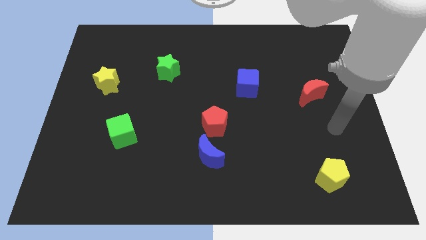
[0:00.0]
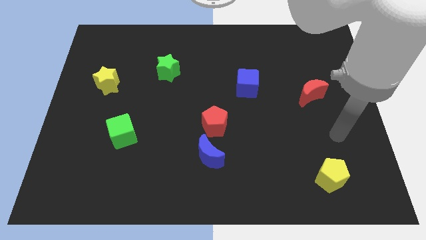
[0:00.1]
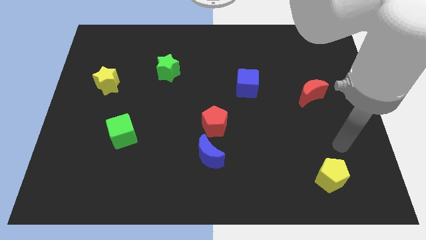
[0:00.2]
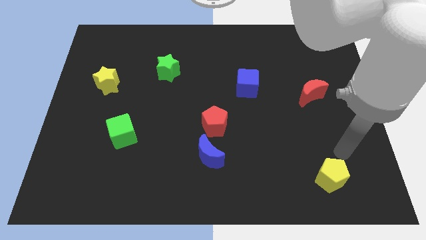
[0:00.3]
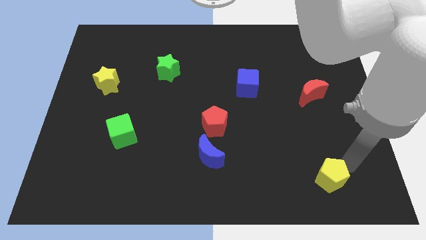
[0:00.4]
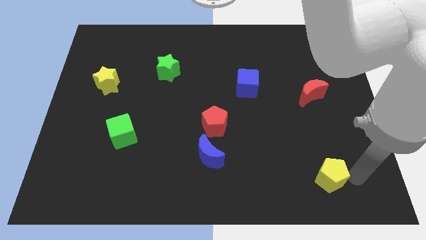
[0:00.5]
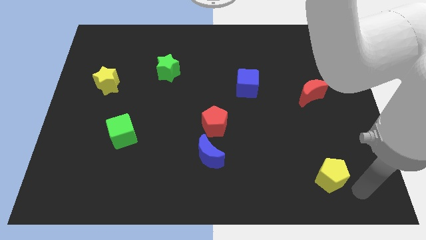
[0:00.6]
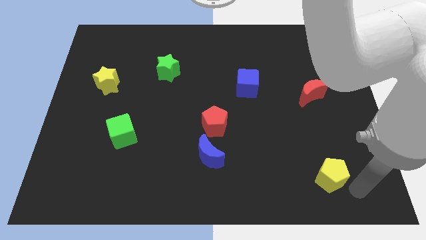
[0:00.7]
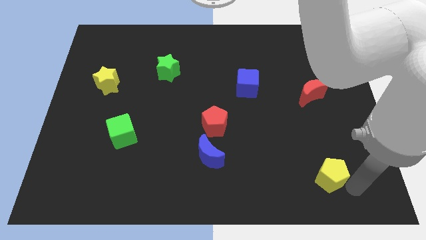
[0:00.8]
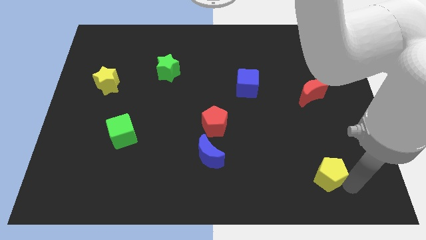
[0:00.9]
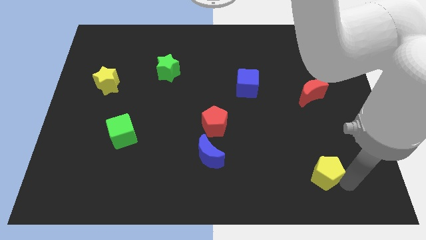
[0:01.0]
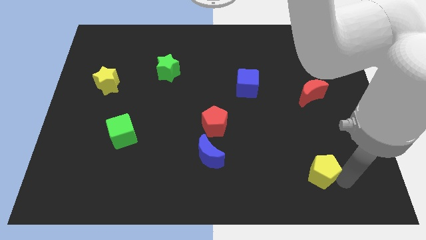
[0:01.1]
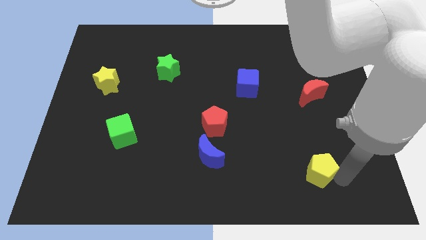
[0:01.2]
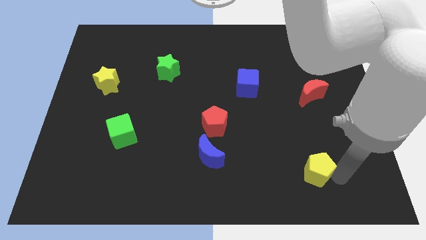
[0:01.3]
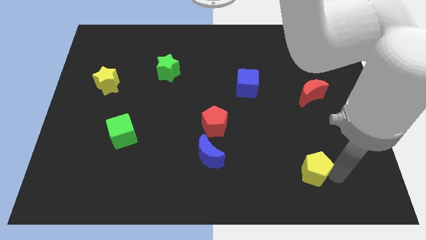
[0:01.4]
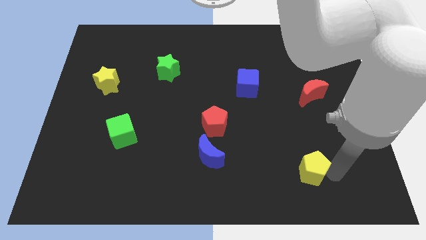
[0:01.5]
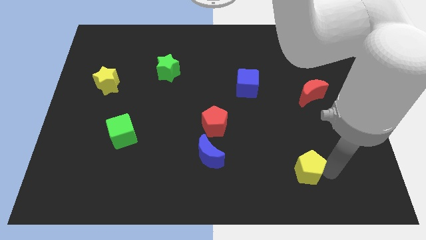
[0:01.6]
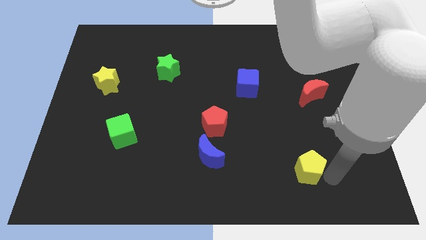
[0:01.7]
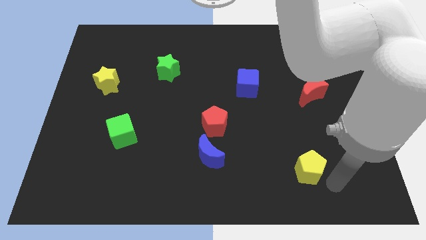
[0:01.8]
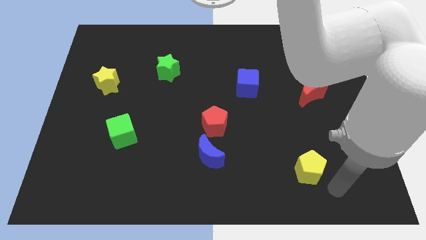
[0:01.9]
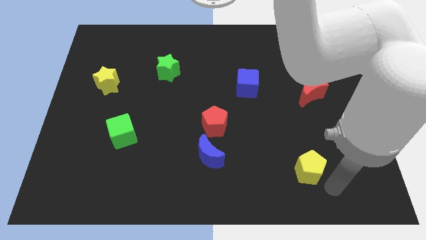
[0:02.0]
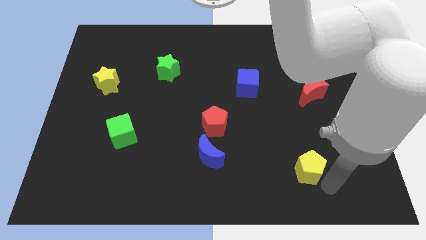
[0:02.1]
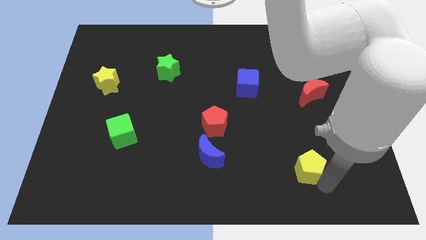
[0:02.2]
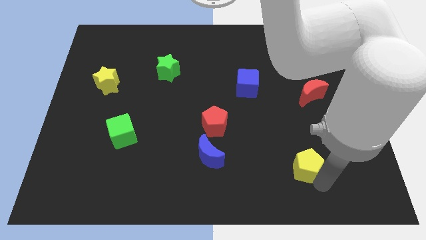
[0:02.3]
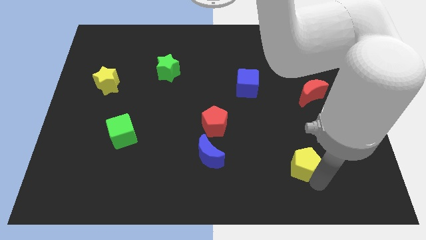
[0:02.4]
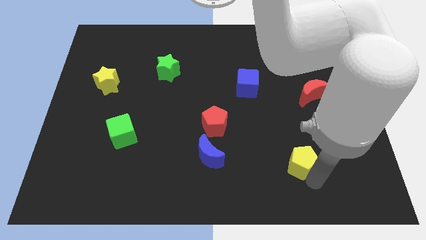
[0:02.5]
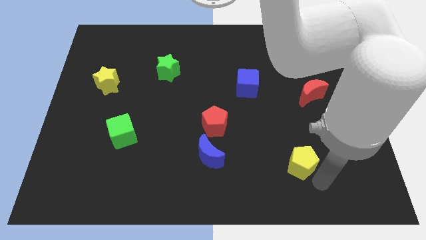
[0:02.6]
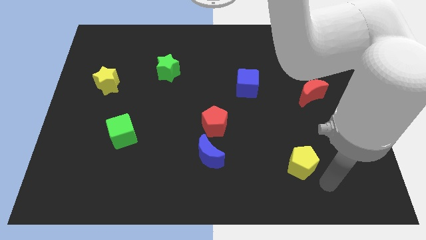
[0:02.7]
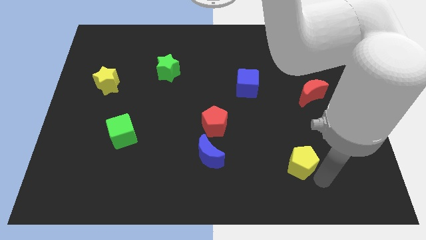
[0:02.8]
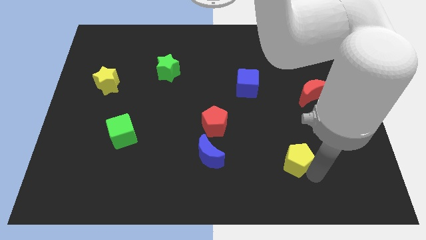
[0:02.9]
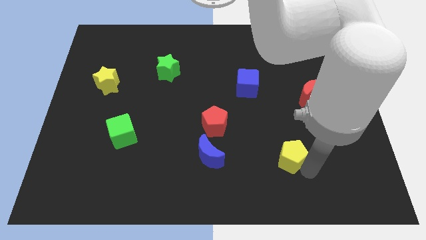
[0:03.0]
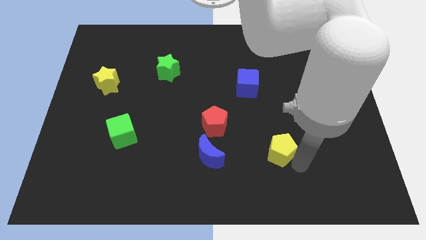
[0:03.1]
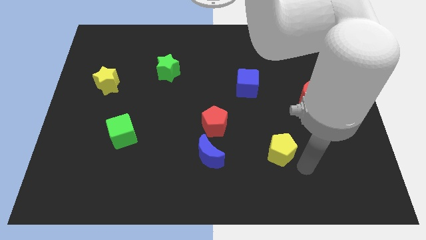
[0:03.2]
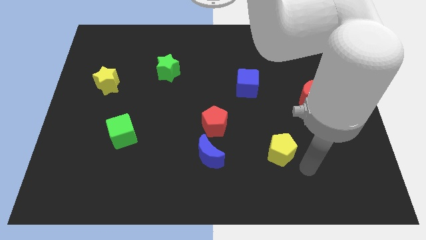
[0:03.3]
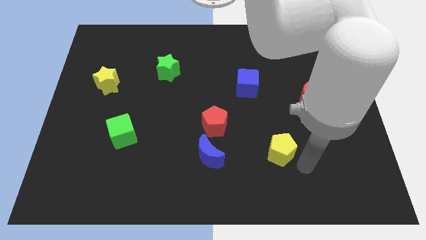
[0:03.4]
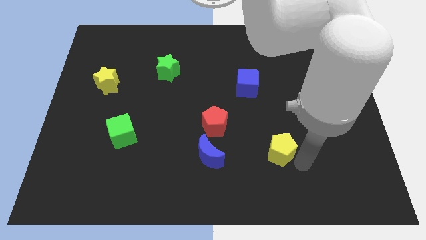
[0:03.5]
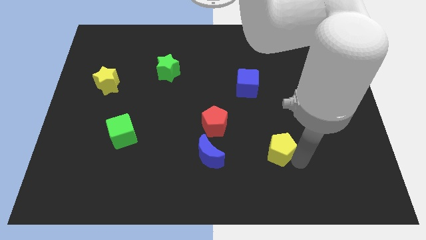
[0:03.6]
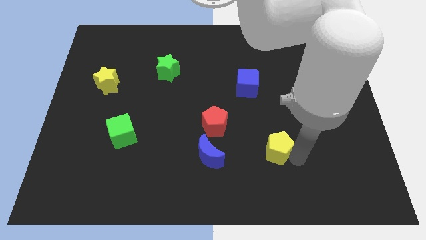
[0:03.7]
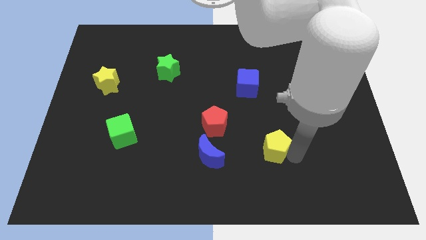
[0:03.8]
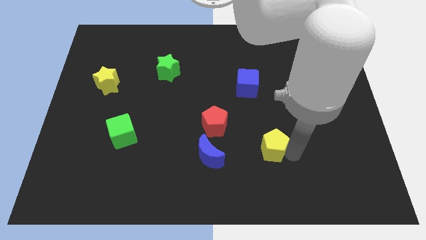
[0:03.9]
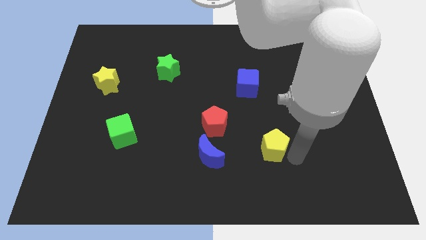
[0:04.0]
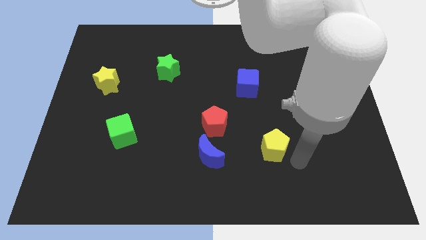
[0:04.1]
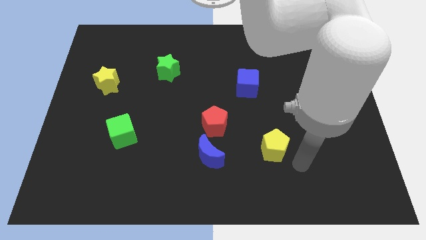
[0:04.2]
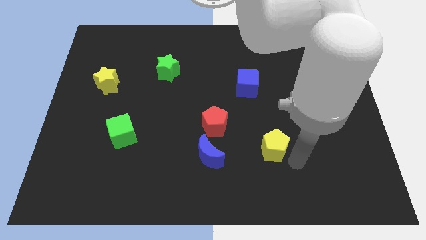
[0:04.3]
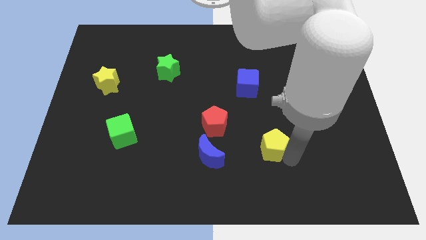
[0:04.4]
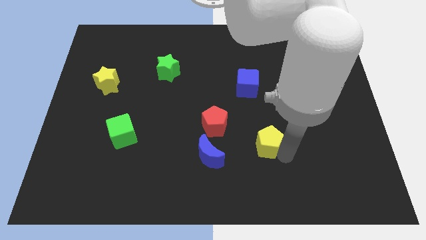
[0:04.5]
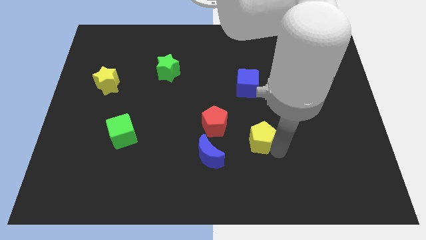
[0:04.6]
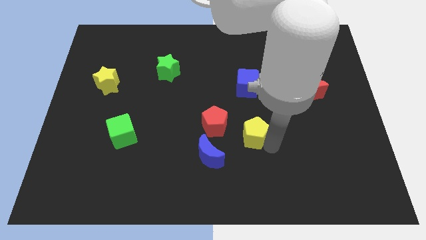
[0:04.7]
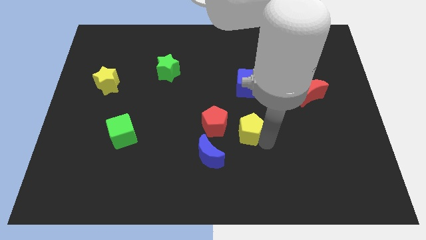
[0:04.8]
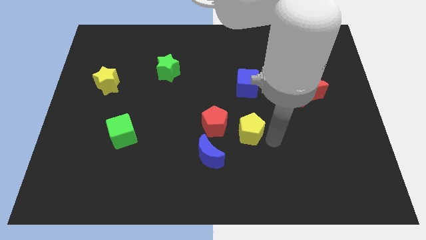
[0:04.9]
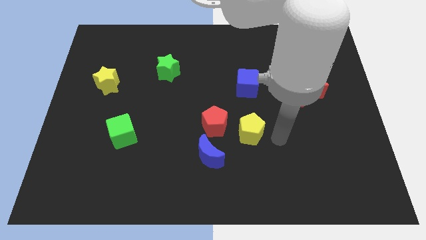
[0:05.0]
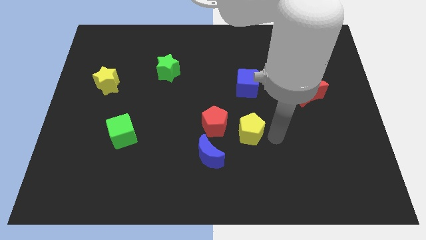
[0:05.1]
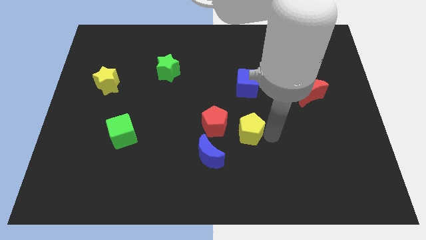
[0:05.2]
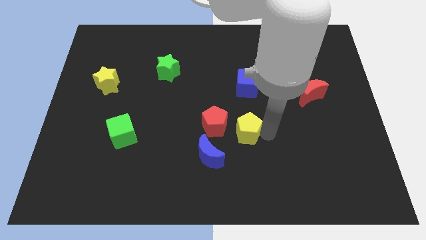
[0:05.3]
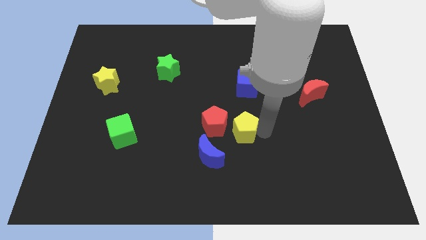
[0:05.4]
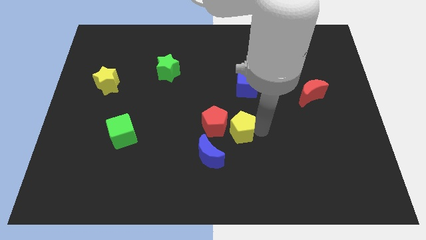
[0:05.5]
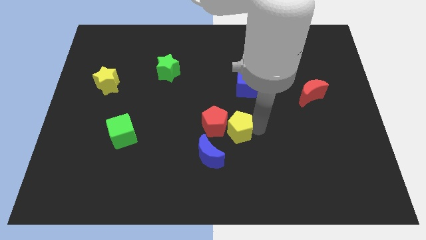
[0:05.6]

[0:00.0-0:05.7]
put the yellow pentagon next to the red pentagon

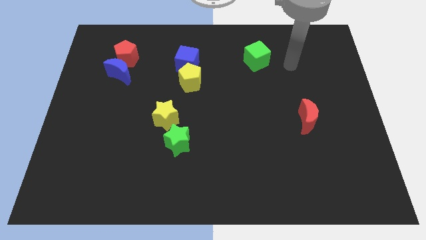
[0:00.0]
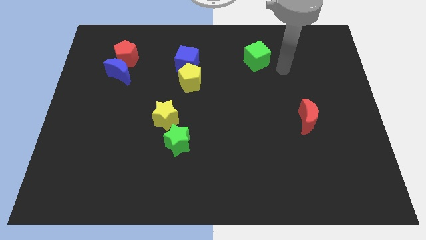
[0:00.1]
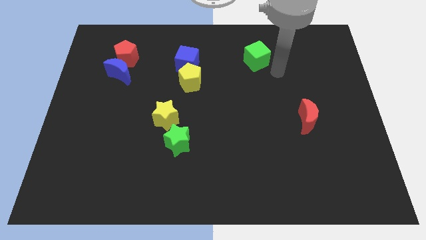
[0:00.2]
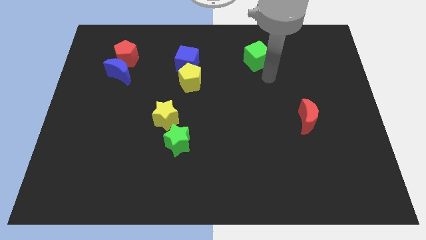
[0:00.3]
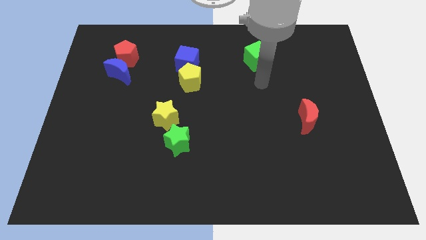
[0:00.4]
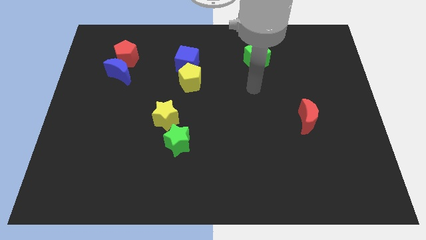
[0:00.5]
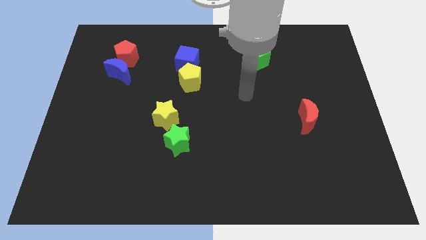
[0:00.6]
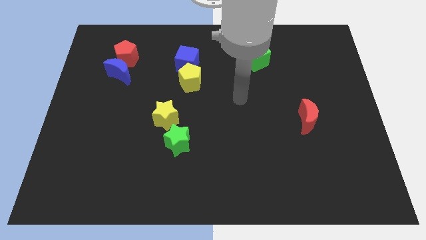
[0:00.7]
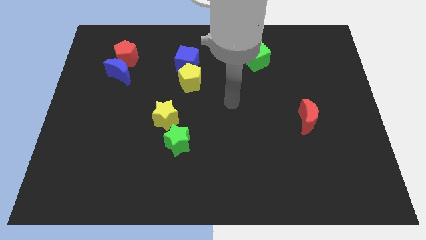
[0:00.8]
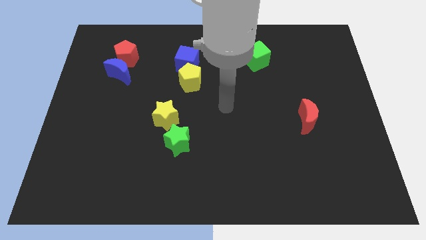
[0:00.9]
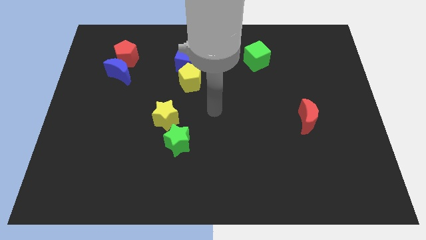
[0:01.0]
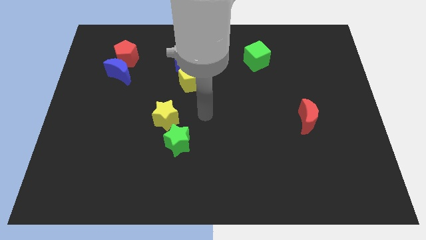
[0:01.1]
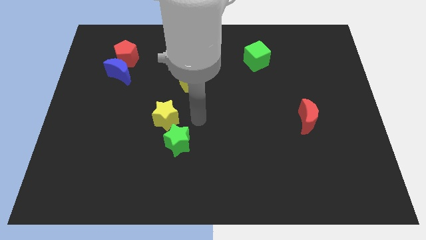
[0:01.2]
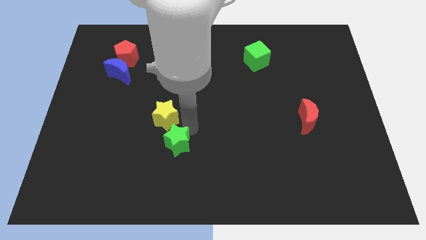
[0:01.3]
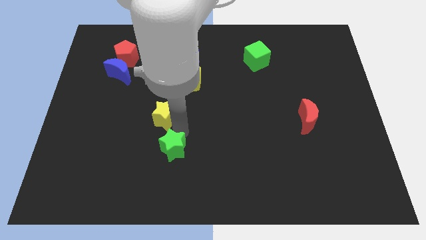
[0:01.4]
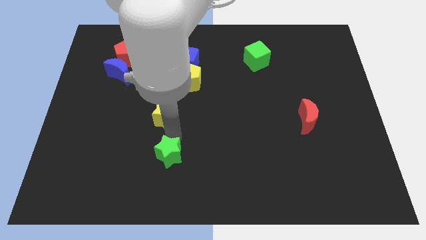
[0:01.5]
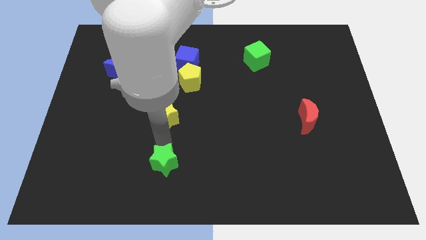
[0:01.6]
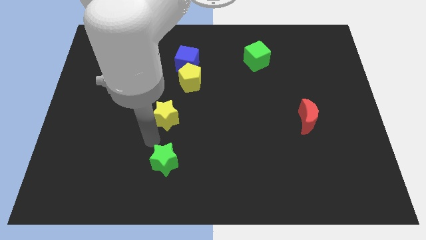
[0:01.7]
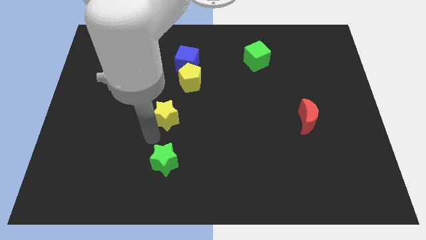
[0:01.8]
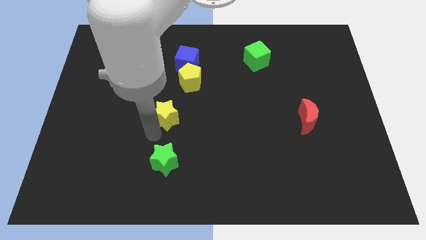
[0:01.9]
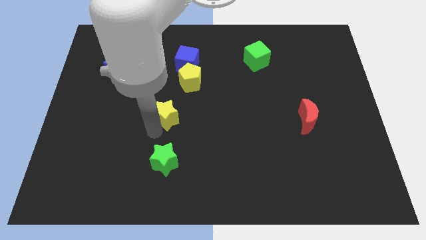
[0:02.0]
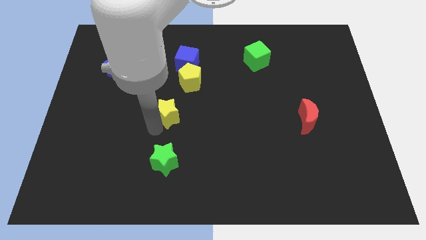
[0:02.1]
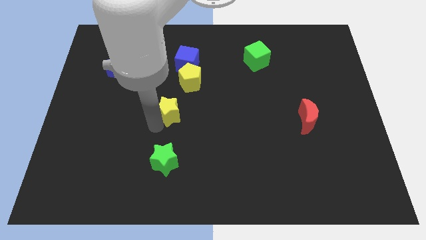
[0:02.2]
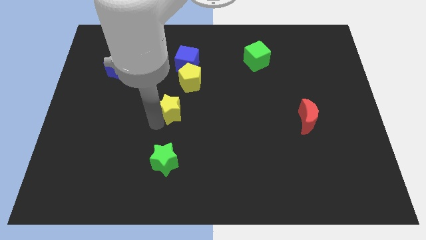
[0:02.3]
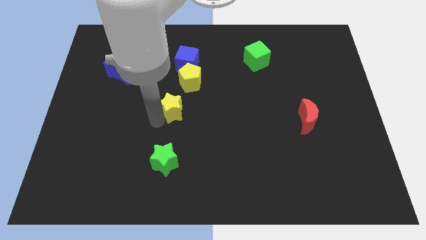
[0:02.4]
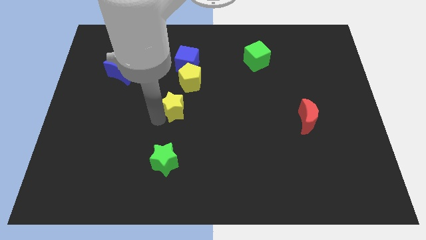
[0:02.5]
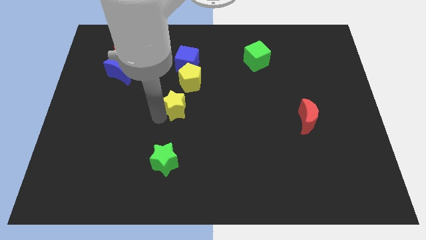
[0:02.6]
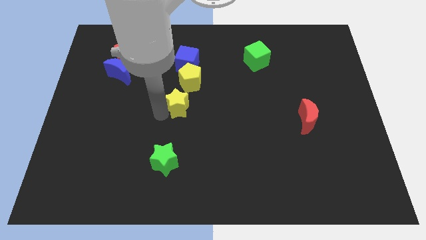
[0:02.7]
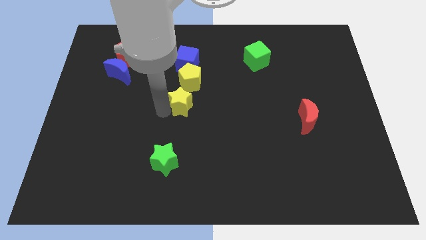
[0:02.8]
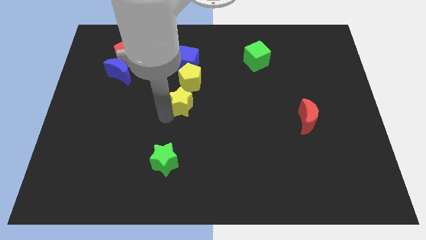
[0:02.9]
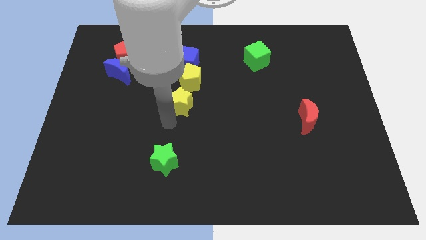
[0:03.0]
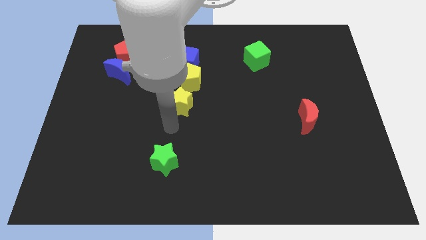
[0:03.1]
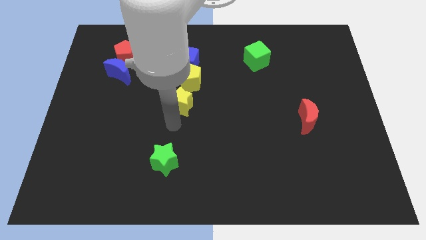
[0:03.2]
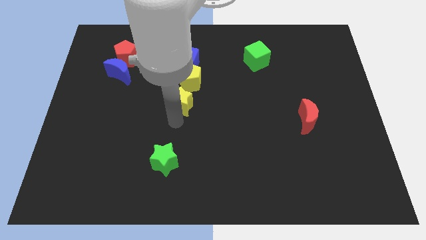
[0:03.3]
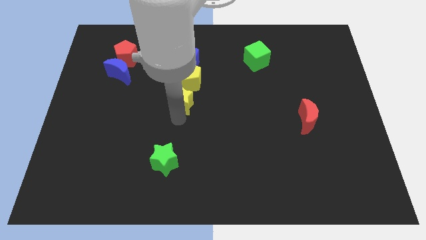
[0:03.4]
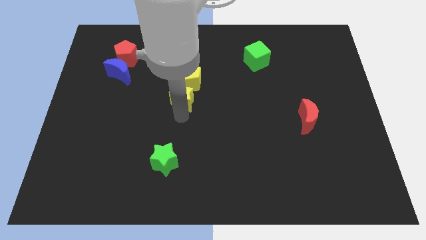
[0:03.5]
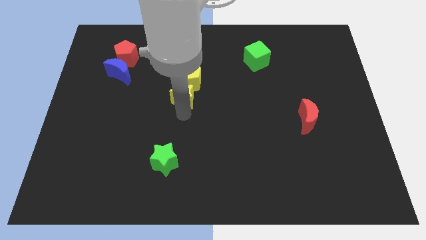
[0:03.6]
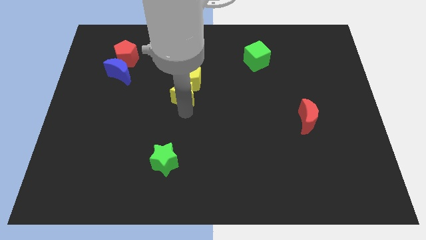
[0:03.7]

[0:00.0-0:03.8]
push the yellow star close to the yellow pentagon
